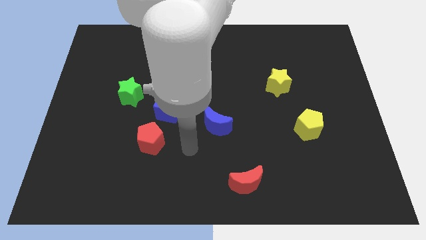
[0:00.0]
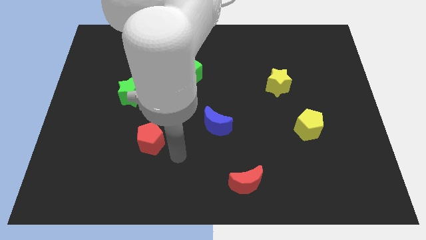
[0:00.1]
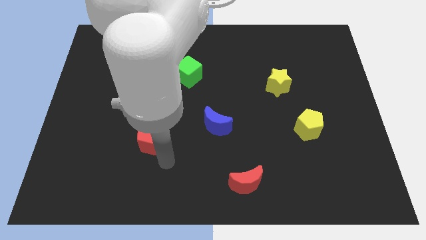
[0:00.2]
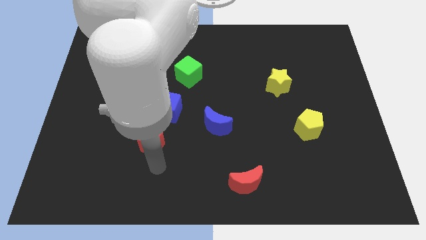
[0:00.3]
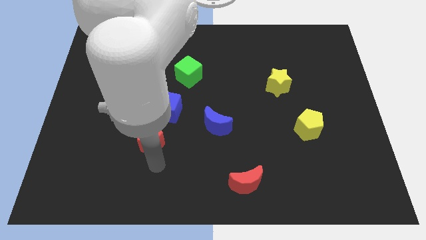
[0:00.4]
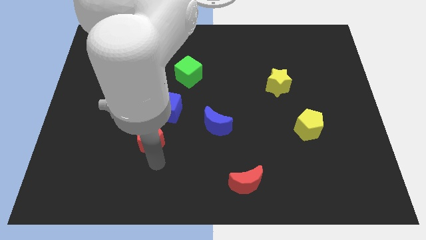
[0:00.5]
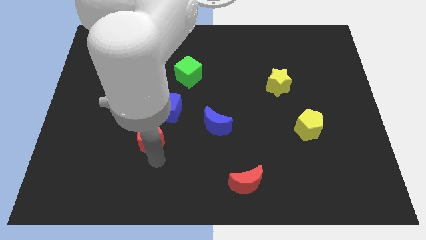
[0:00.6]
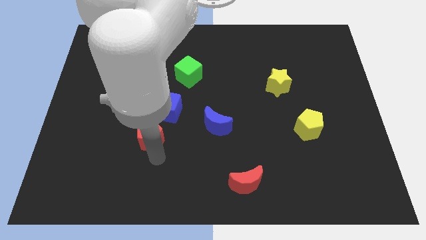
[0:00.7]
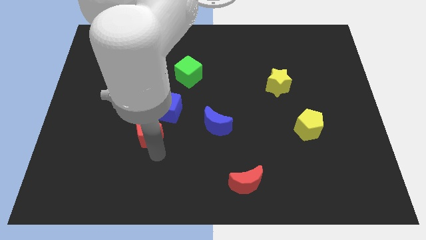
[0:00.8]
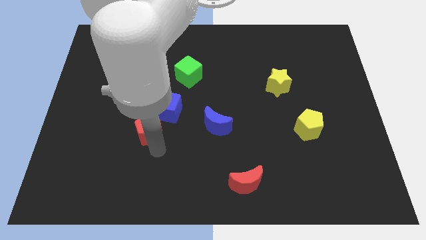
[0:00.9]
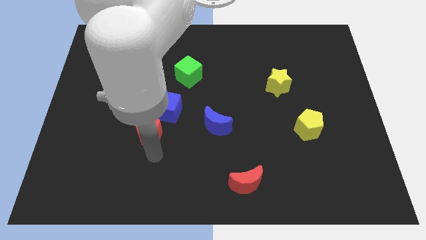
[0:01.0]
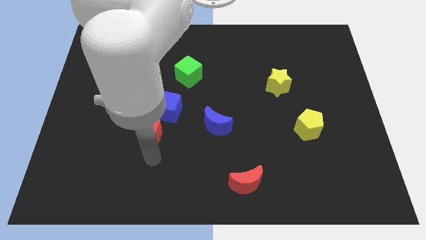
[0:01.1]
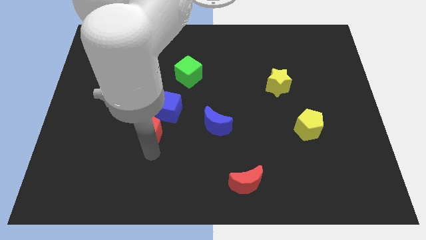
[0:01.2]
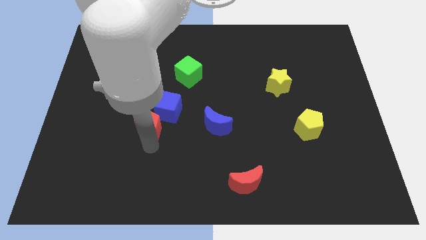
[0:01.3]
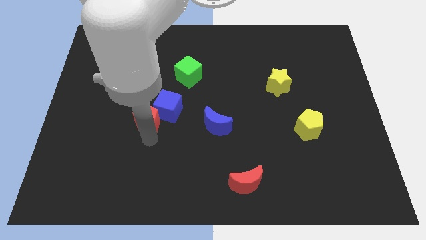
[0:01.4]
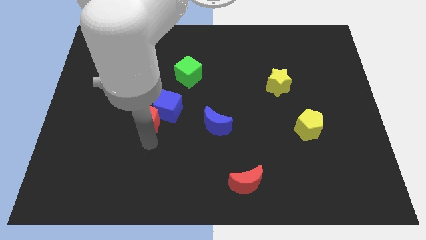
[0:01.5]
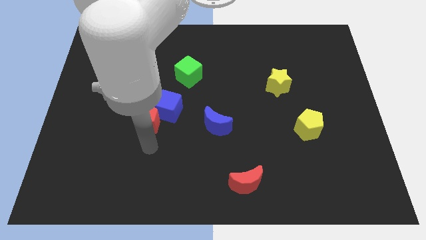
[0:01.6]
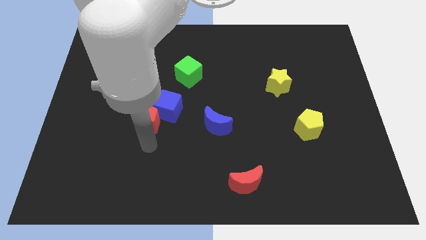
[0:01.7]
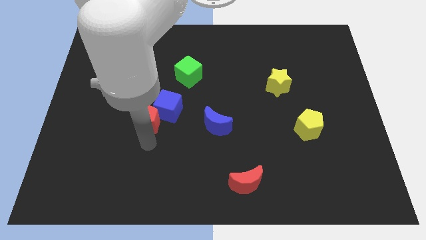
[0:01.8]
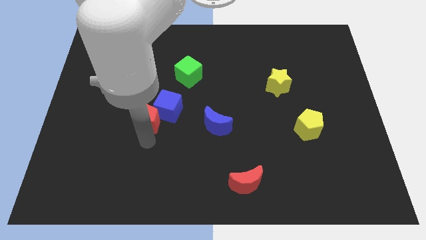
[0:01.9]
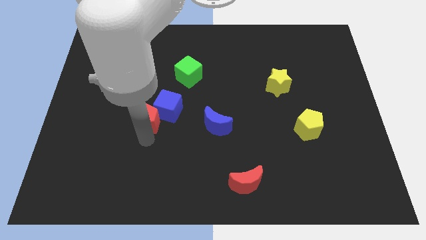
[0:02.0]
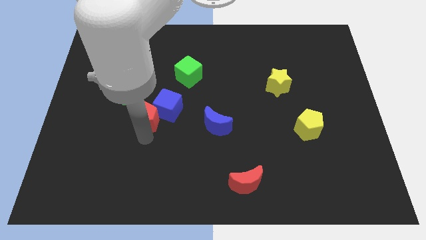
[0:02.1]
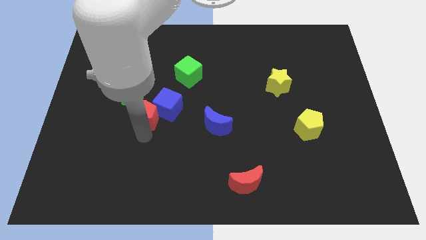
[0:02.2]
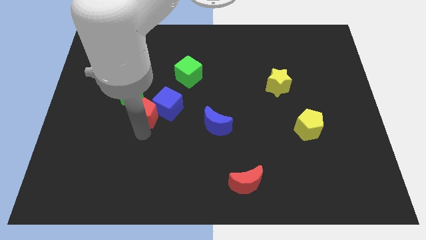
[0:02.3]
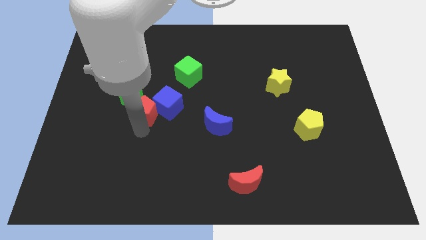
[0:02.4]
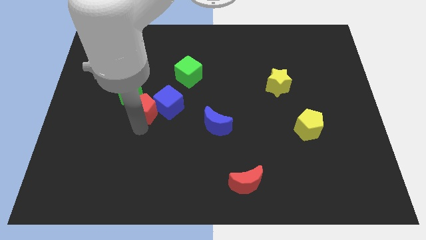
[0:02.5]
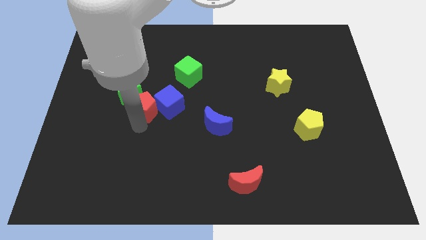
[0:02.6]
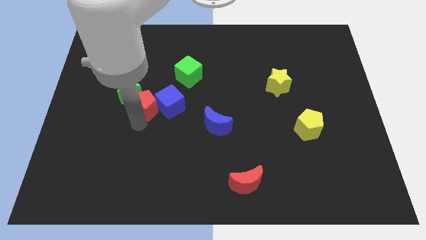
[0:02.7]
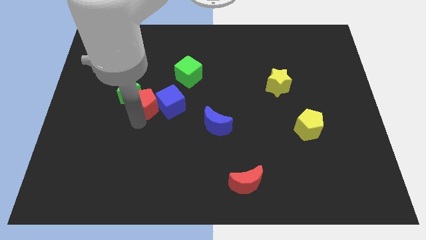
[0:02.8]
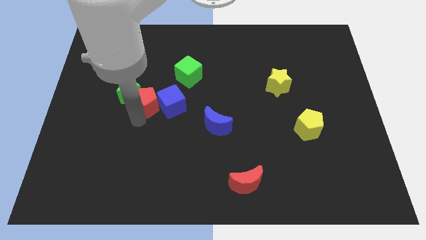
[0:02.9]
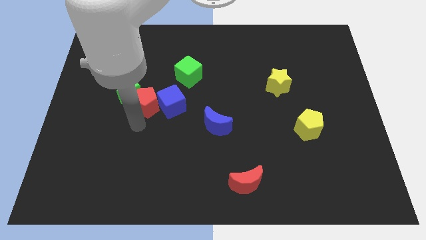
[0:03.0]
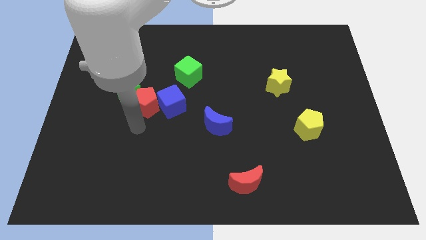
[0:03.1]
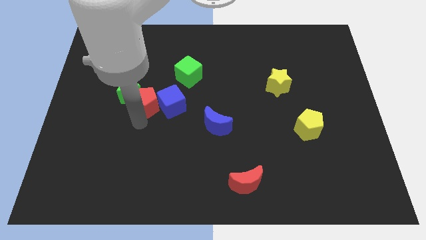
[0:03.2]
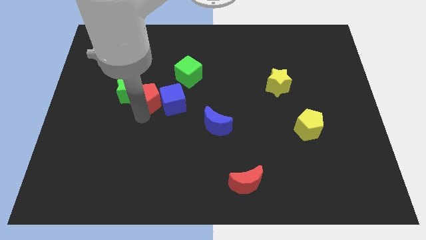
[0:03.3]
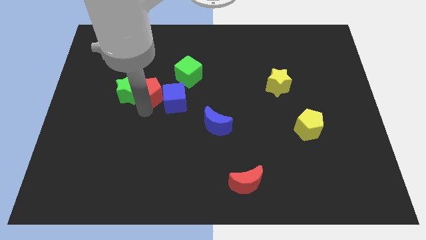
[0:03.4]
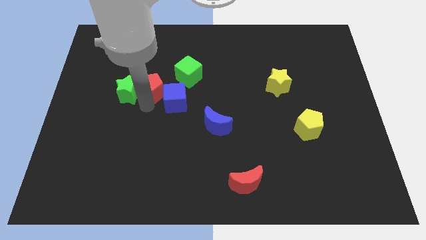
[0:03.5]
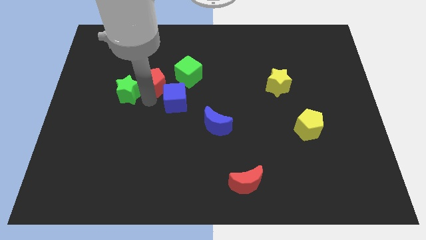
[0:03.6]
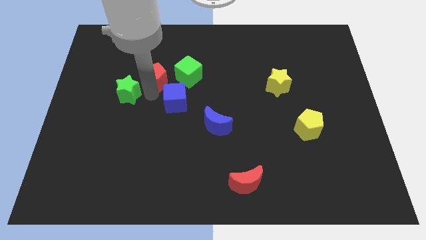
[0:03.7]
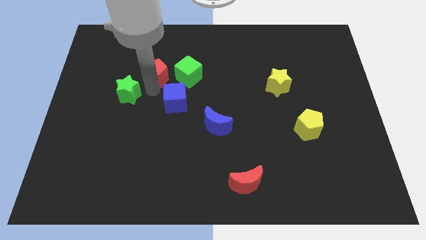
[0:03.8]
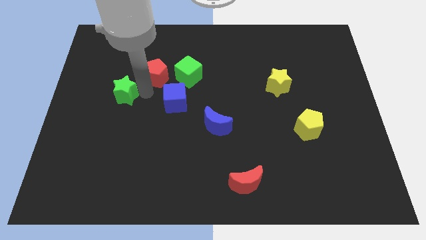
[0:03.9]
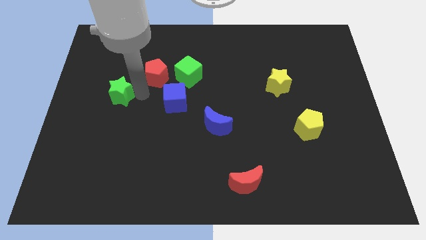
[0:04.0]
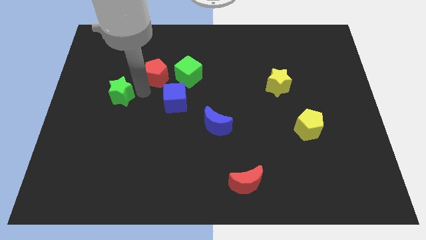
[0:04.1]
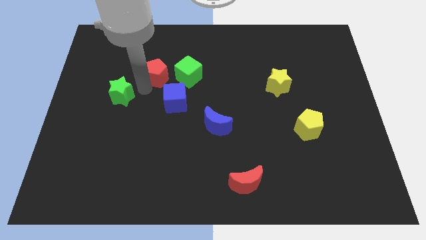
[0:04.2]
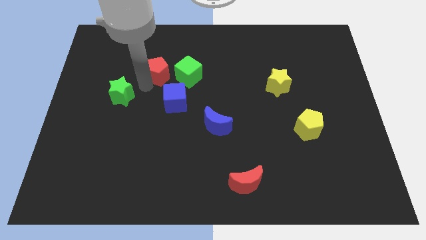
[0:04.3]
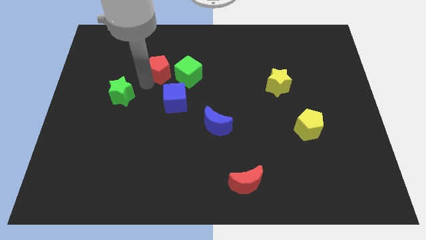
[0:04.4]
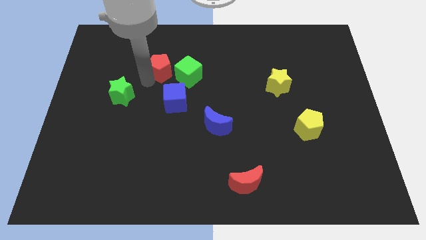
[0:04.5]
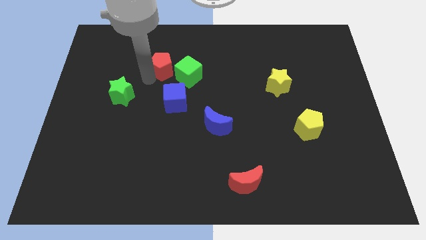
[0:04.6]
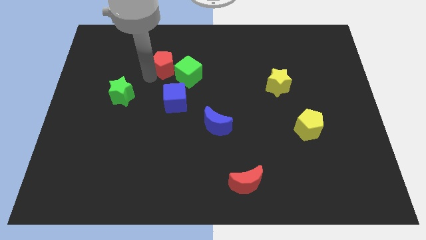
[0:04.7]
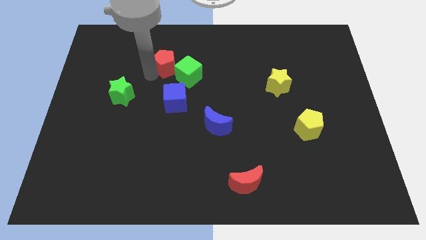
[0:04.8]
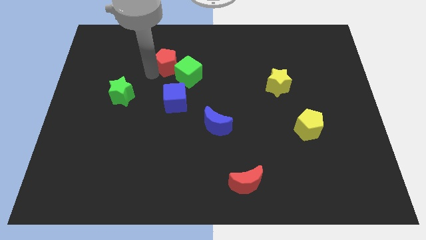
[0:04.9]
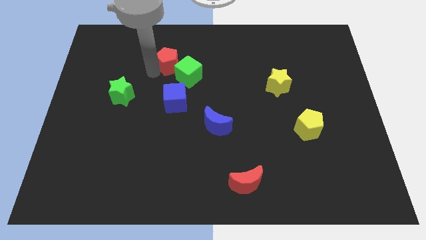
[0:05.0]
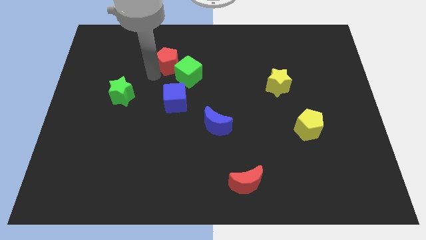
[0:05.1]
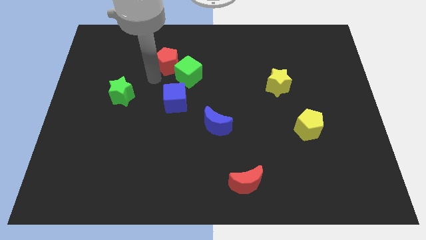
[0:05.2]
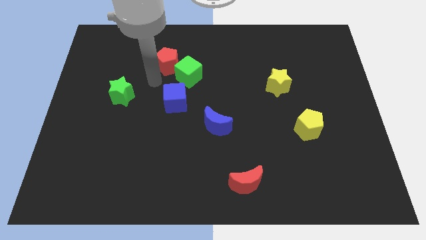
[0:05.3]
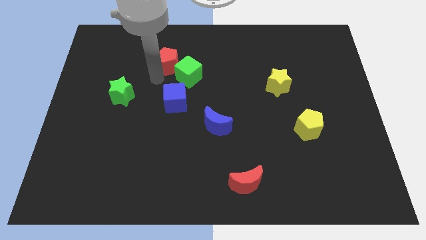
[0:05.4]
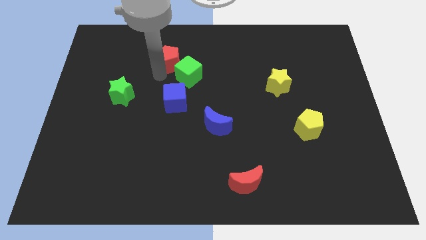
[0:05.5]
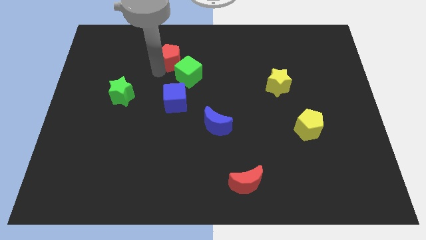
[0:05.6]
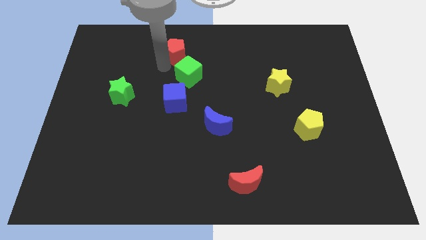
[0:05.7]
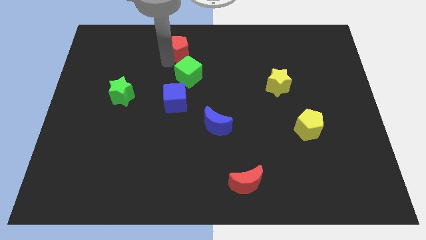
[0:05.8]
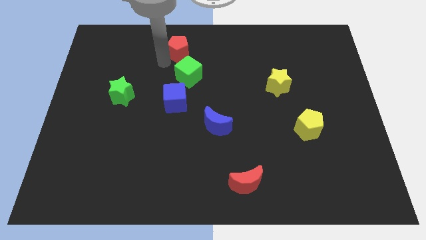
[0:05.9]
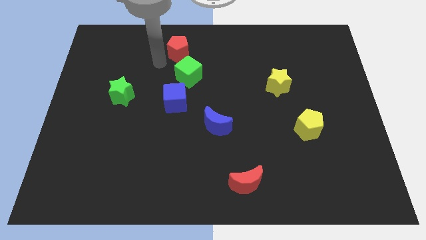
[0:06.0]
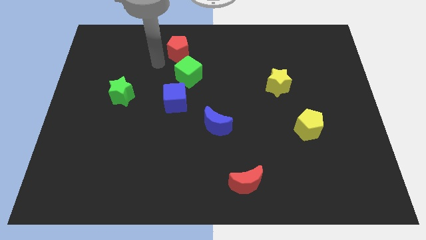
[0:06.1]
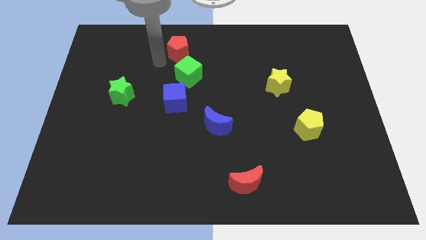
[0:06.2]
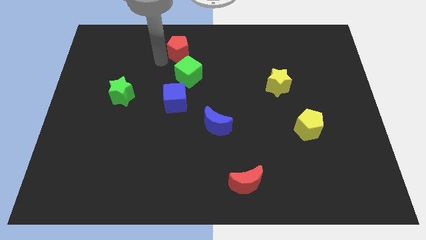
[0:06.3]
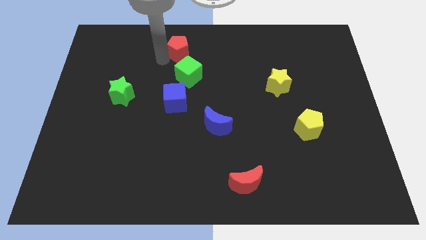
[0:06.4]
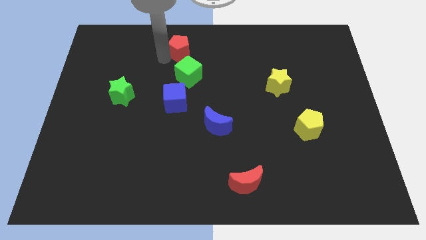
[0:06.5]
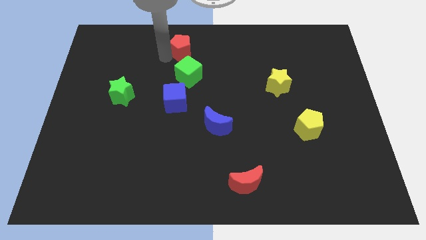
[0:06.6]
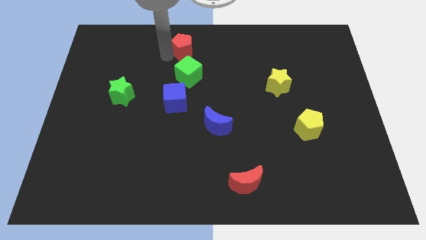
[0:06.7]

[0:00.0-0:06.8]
put the red pentagon to the top side
